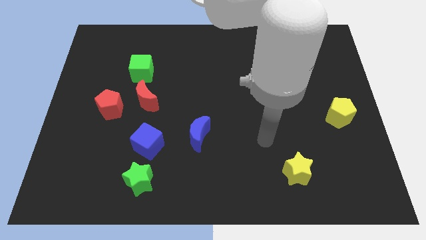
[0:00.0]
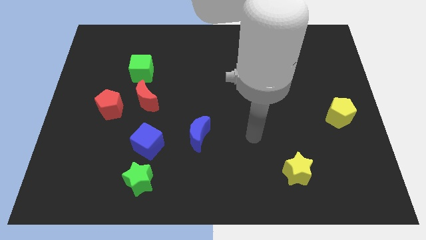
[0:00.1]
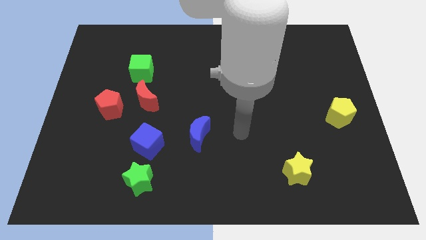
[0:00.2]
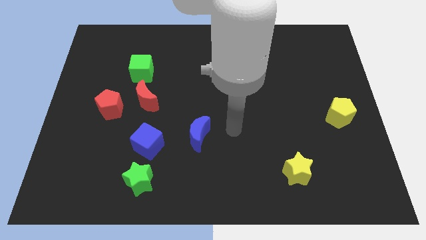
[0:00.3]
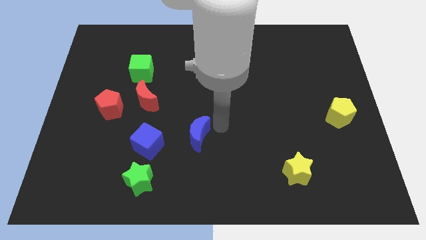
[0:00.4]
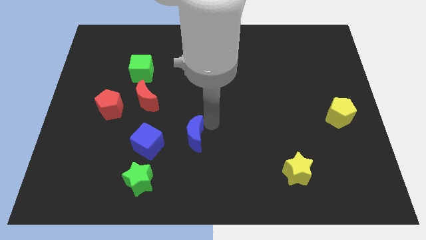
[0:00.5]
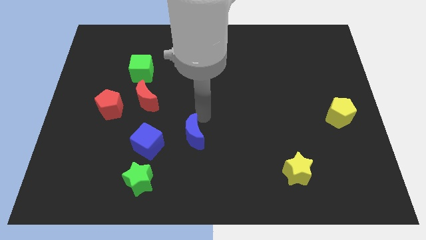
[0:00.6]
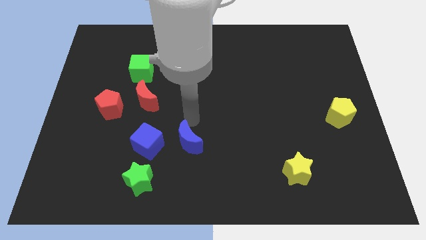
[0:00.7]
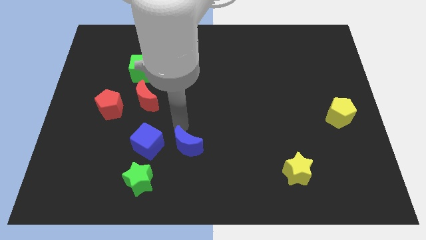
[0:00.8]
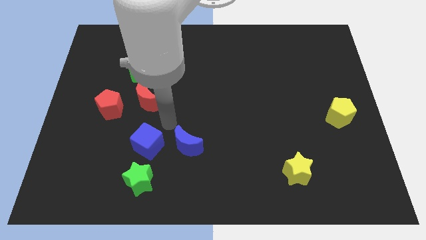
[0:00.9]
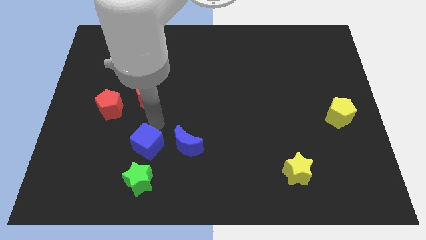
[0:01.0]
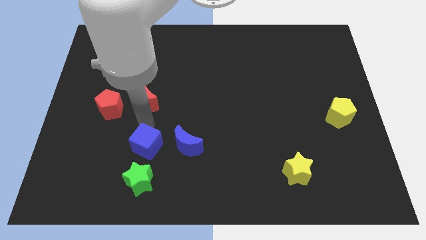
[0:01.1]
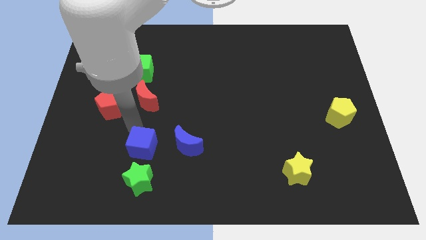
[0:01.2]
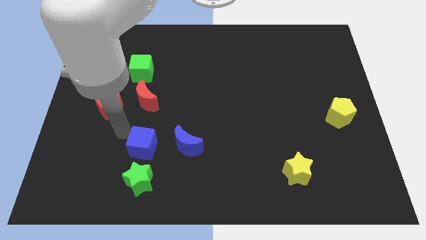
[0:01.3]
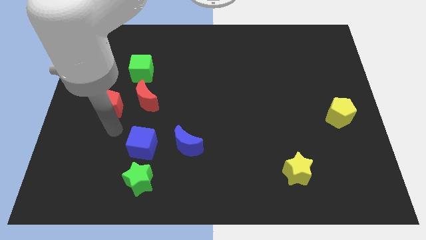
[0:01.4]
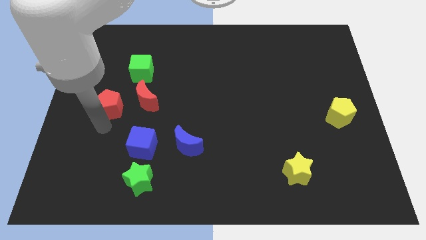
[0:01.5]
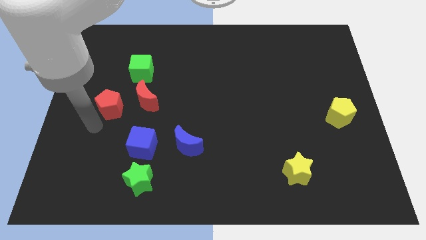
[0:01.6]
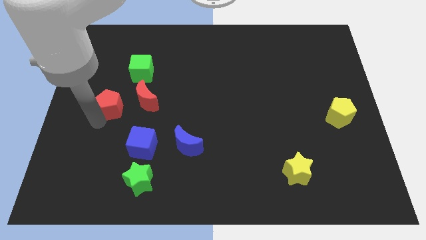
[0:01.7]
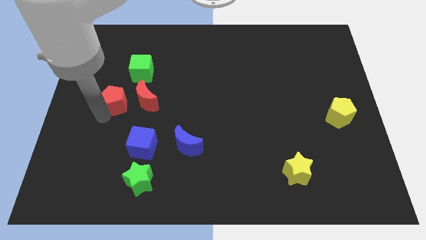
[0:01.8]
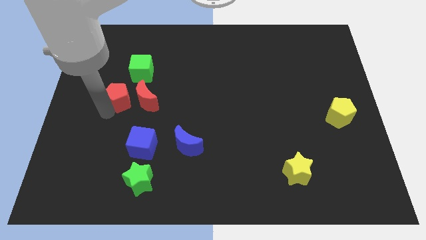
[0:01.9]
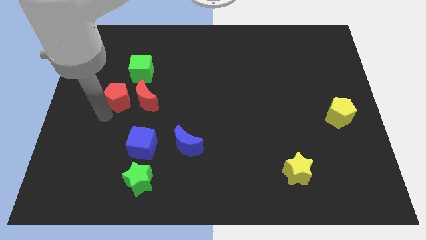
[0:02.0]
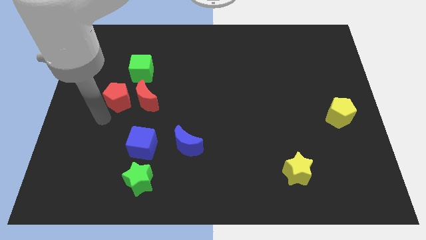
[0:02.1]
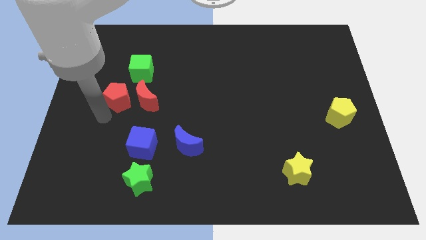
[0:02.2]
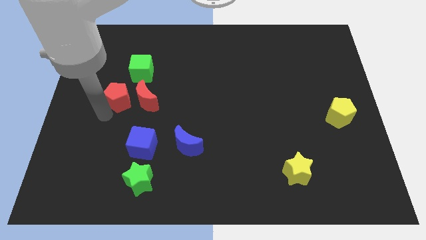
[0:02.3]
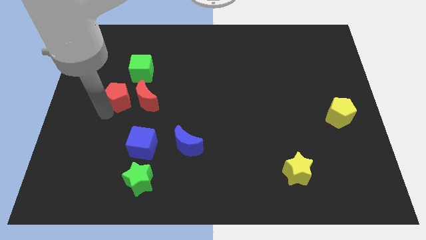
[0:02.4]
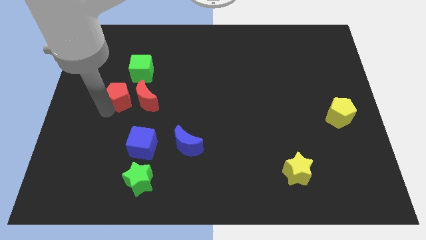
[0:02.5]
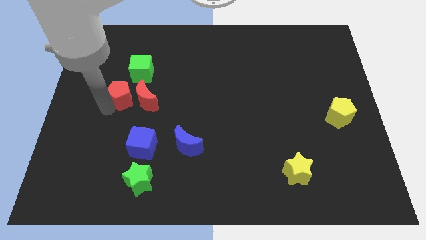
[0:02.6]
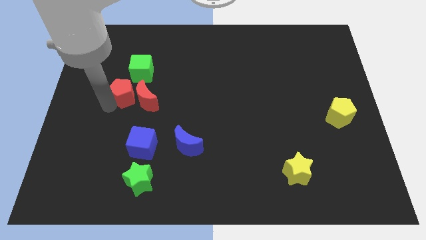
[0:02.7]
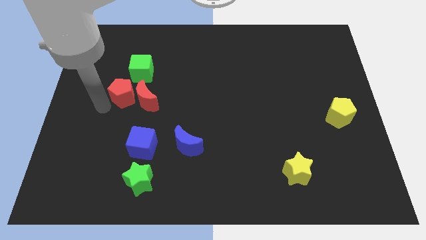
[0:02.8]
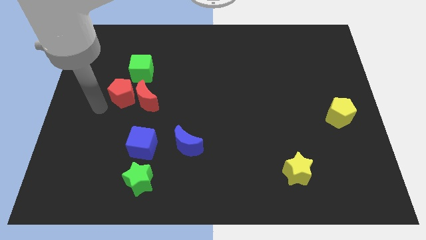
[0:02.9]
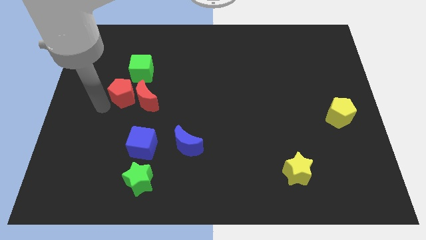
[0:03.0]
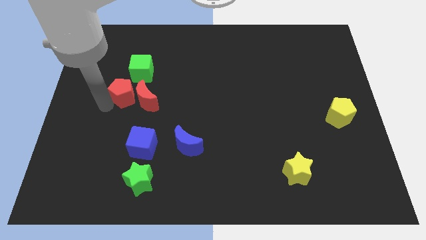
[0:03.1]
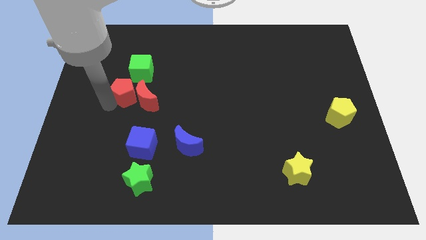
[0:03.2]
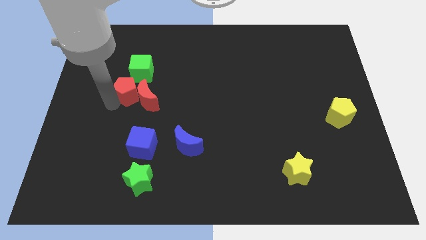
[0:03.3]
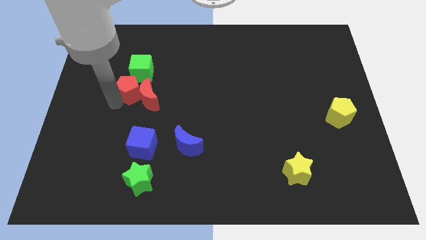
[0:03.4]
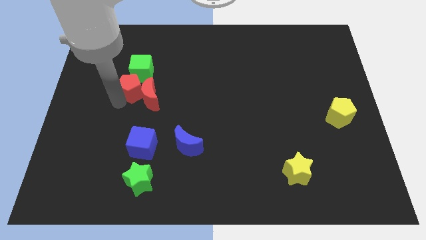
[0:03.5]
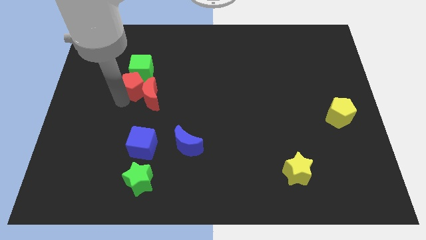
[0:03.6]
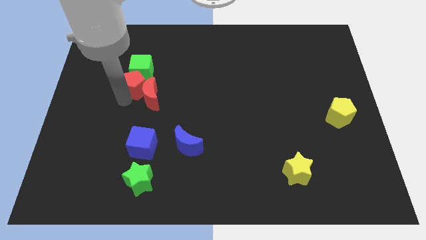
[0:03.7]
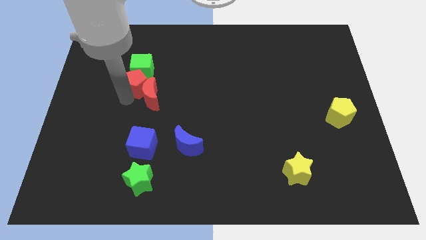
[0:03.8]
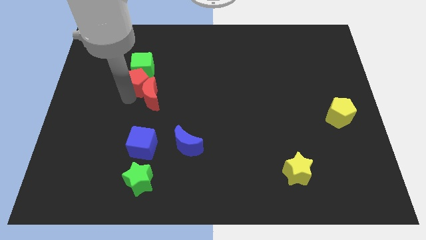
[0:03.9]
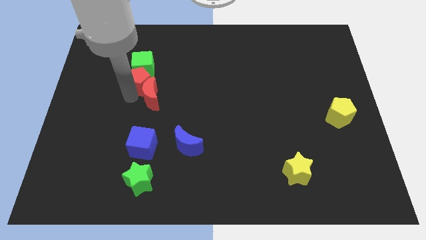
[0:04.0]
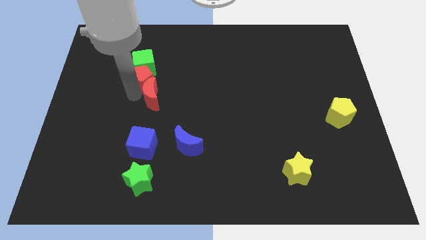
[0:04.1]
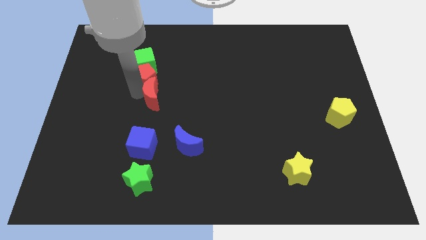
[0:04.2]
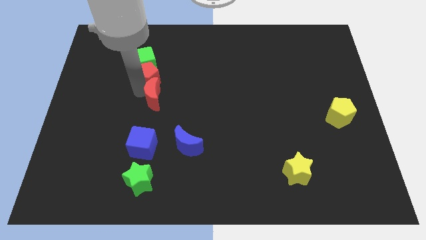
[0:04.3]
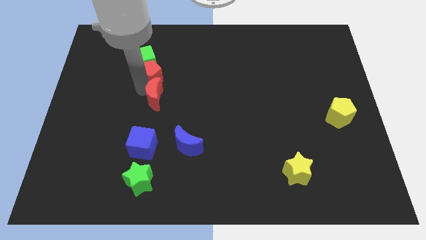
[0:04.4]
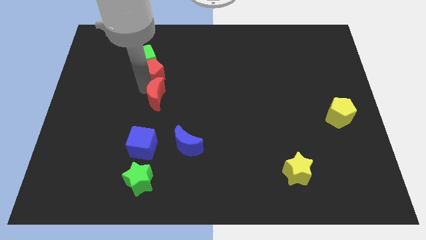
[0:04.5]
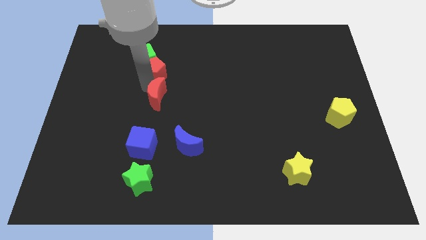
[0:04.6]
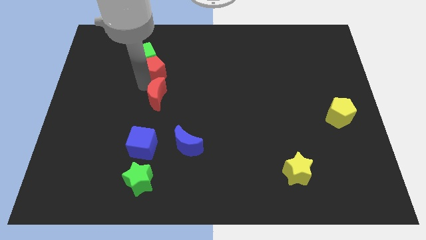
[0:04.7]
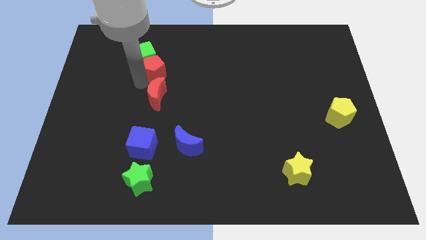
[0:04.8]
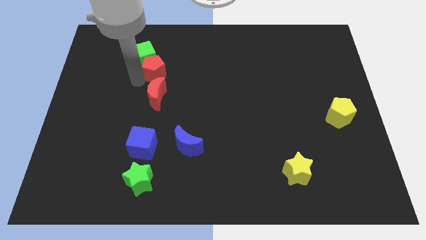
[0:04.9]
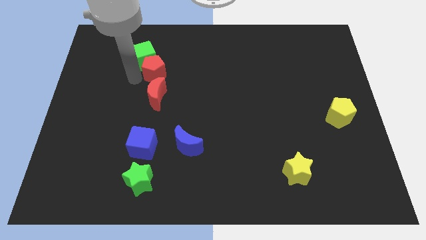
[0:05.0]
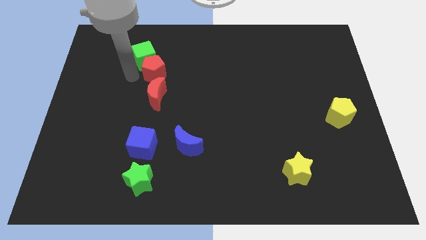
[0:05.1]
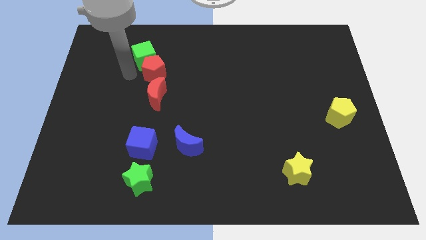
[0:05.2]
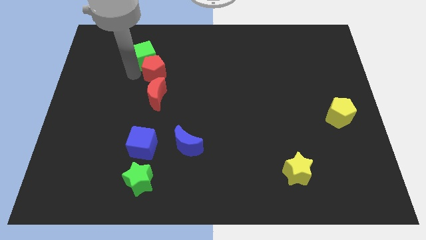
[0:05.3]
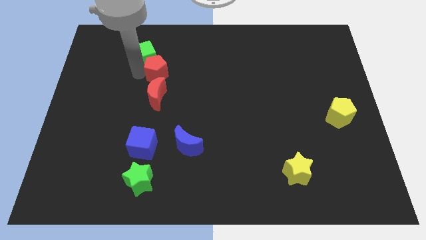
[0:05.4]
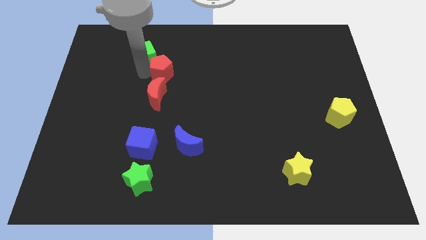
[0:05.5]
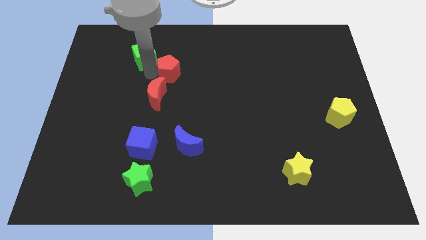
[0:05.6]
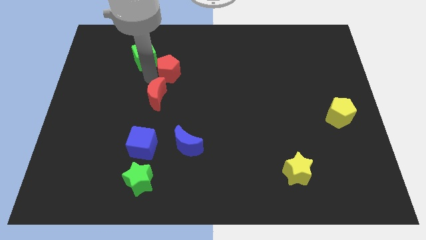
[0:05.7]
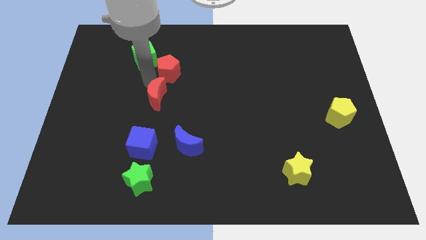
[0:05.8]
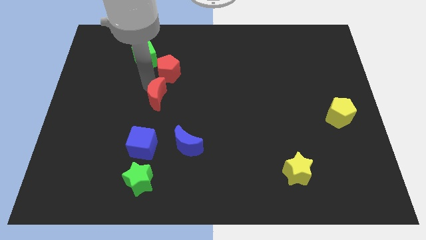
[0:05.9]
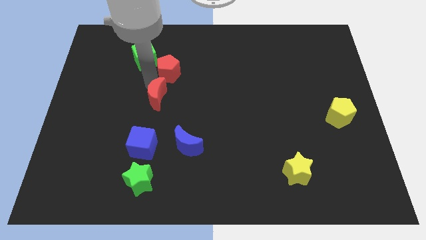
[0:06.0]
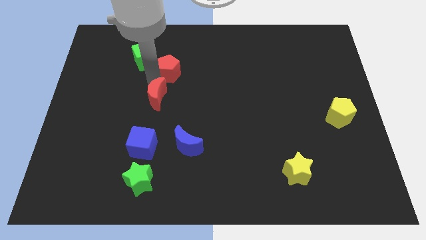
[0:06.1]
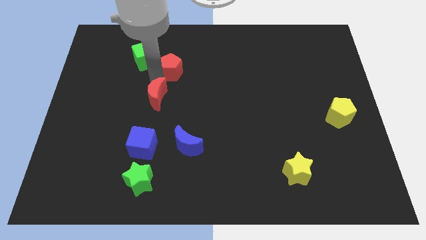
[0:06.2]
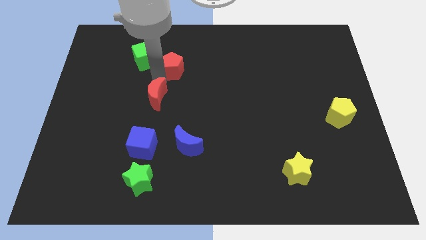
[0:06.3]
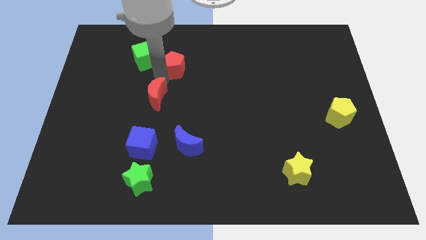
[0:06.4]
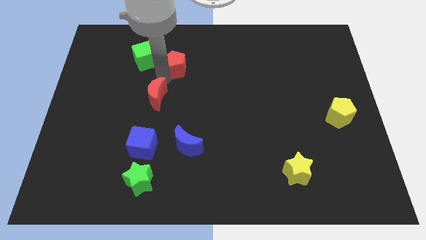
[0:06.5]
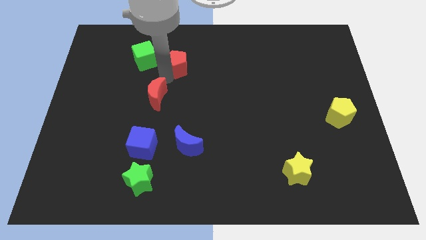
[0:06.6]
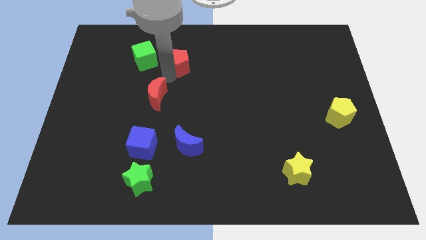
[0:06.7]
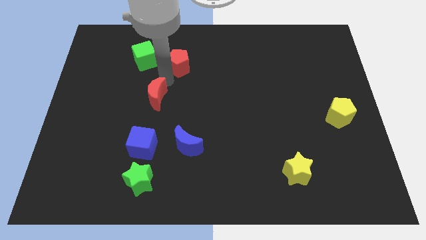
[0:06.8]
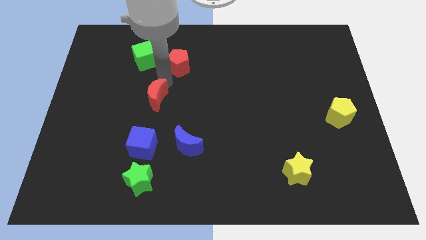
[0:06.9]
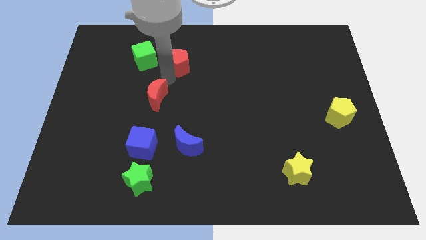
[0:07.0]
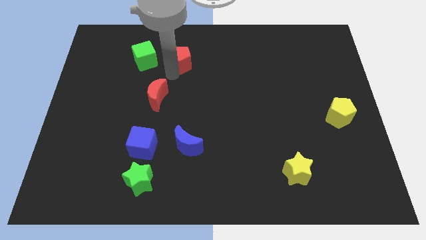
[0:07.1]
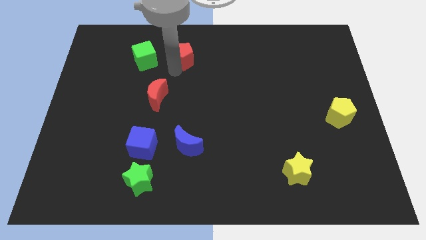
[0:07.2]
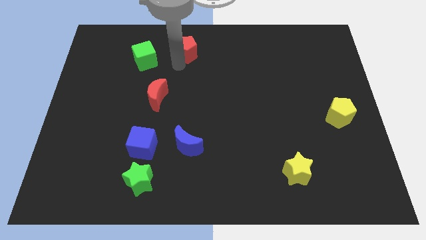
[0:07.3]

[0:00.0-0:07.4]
put the red pentagon to the top side
